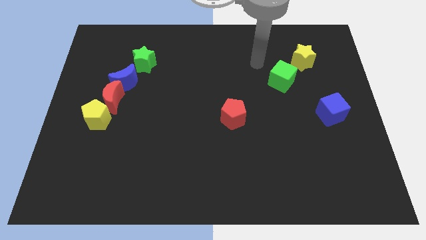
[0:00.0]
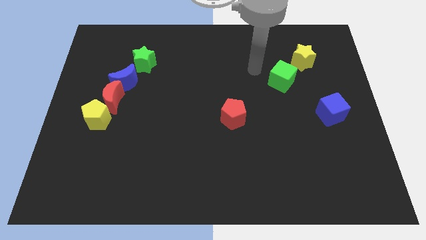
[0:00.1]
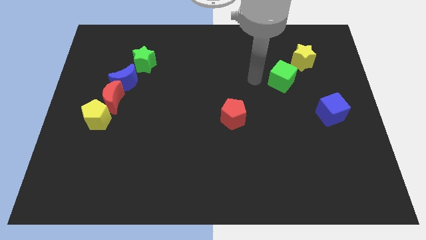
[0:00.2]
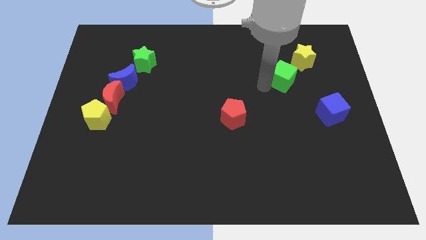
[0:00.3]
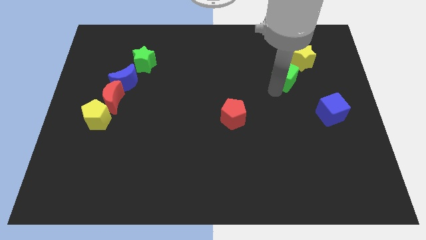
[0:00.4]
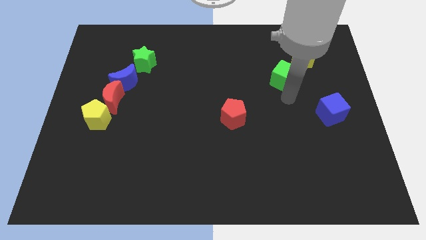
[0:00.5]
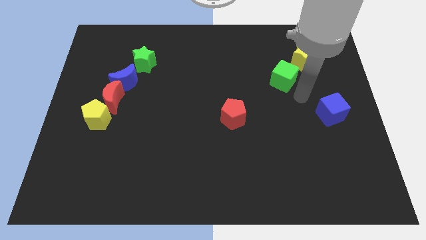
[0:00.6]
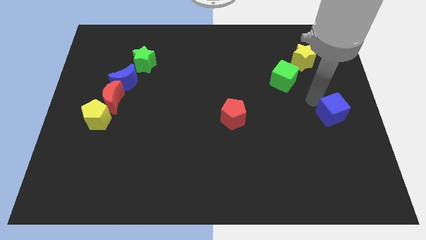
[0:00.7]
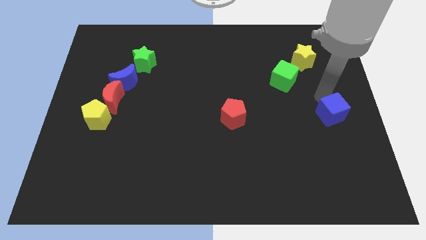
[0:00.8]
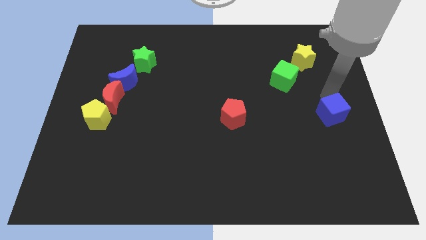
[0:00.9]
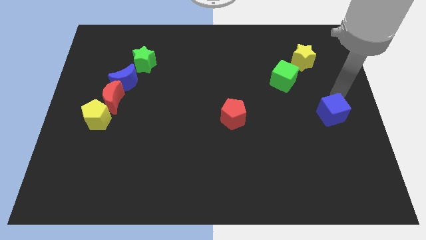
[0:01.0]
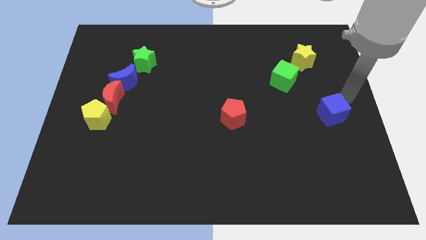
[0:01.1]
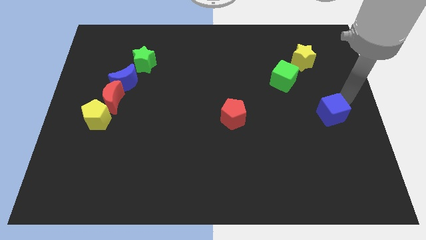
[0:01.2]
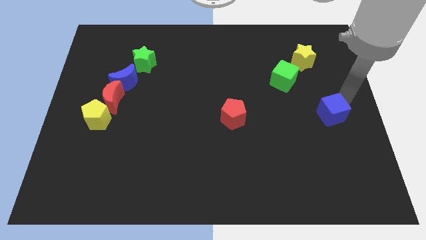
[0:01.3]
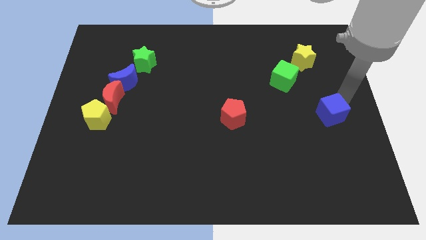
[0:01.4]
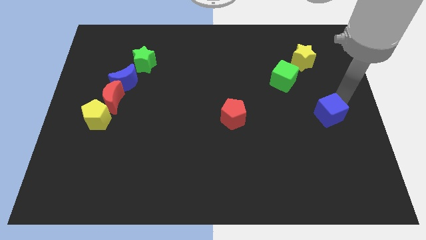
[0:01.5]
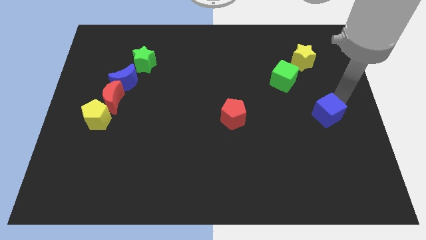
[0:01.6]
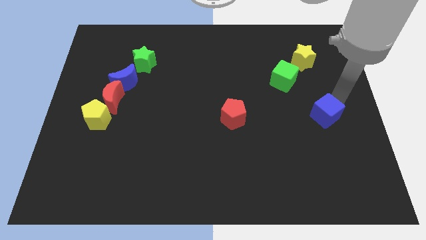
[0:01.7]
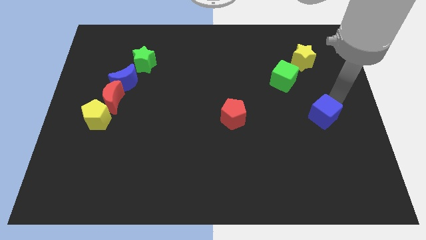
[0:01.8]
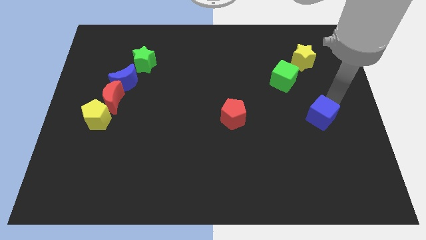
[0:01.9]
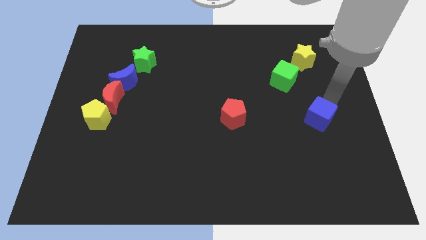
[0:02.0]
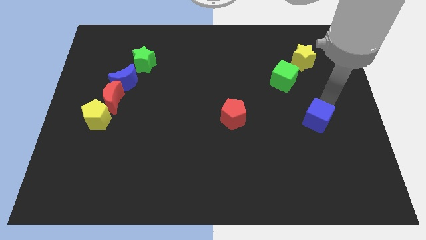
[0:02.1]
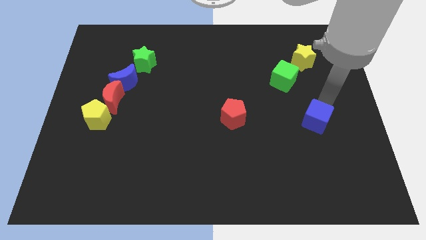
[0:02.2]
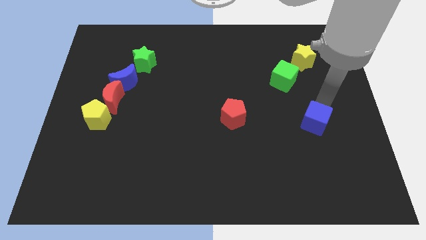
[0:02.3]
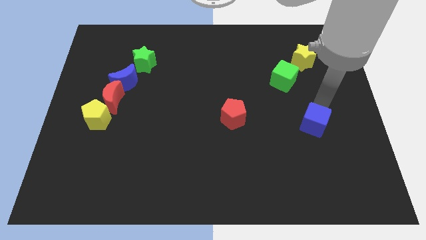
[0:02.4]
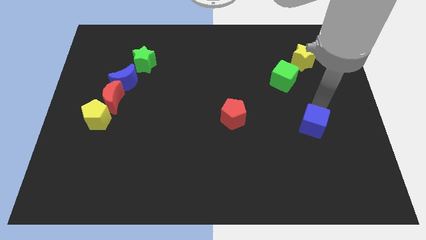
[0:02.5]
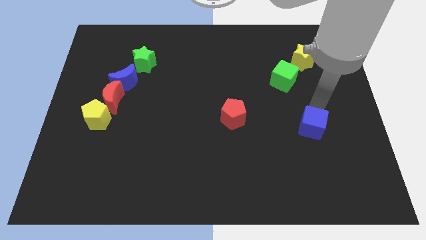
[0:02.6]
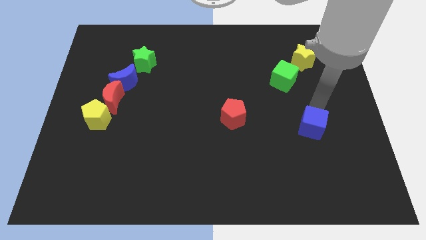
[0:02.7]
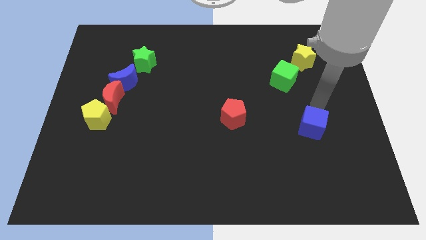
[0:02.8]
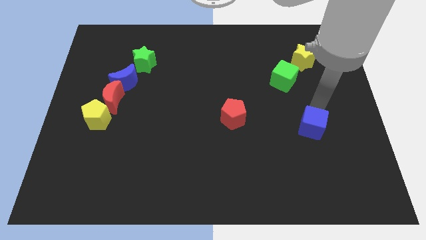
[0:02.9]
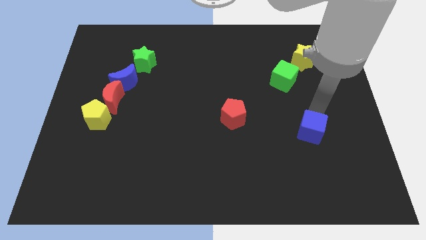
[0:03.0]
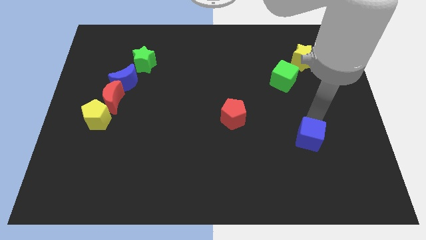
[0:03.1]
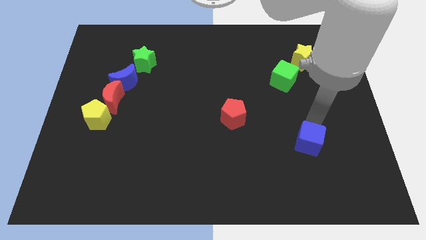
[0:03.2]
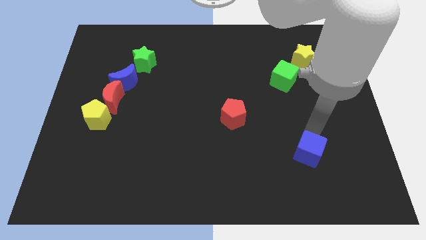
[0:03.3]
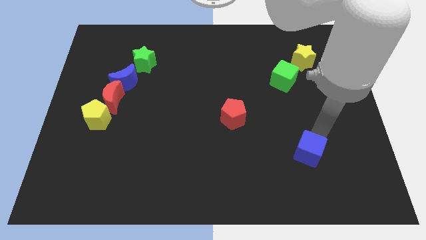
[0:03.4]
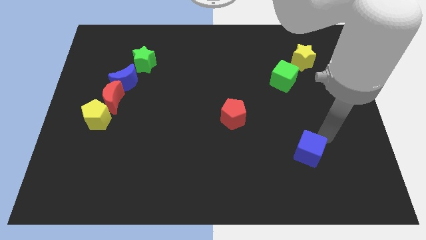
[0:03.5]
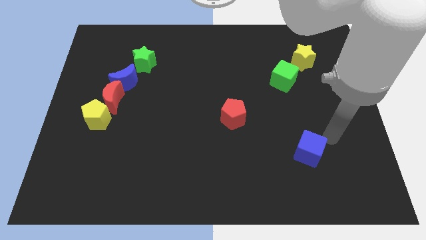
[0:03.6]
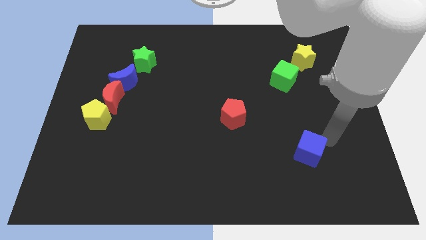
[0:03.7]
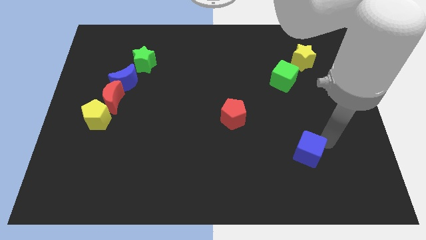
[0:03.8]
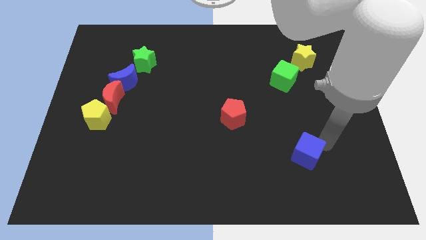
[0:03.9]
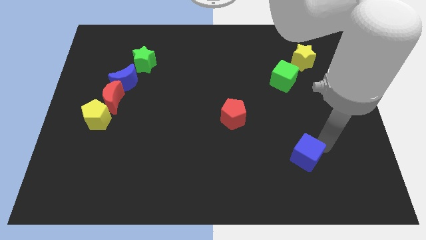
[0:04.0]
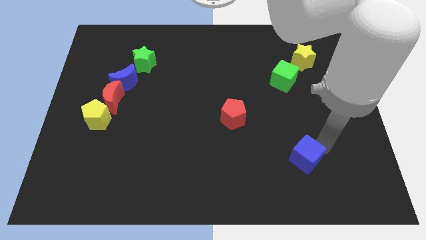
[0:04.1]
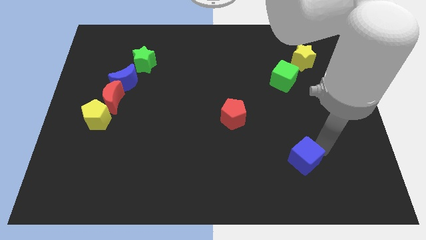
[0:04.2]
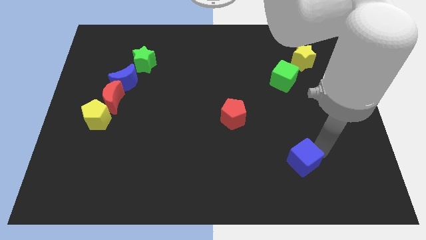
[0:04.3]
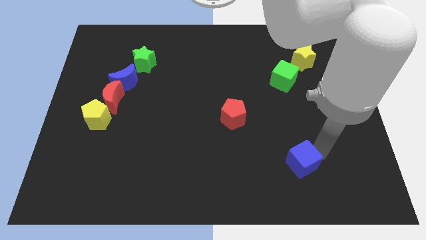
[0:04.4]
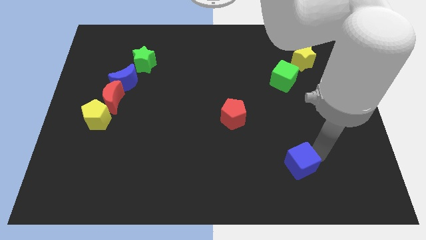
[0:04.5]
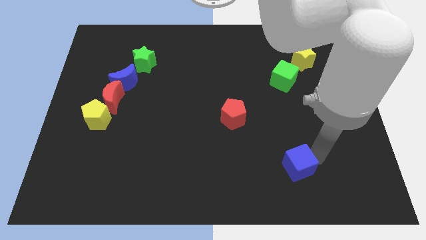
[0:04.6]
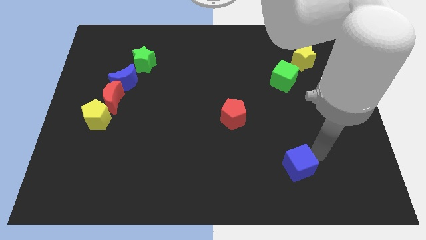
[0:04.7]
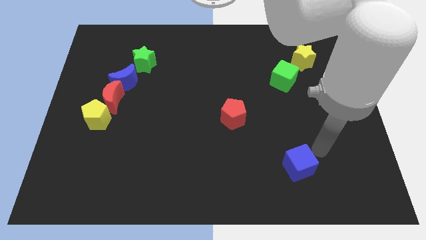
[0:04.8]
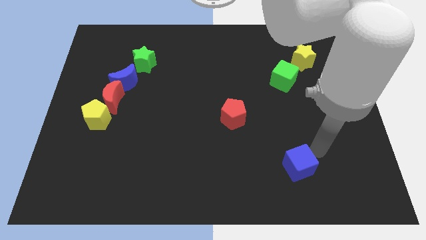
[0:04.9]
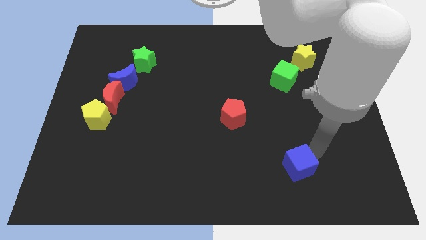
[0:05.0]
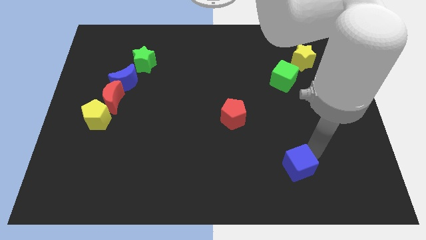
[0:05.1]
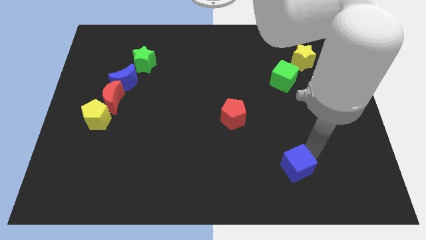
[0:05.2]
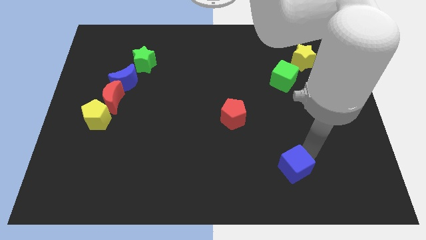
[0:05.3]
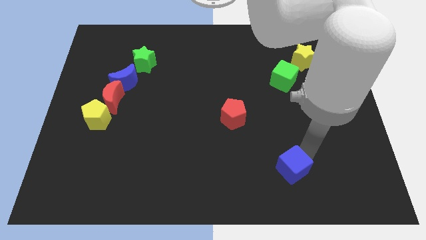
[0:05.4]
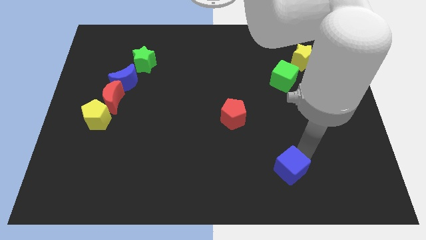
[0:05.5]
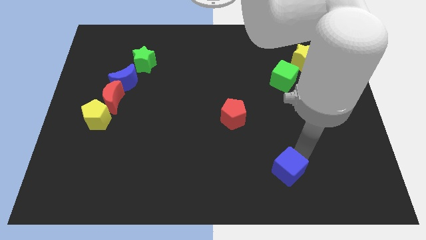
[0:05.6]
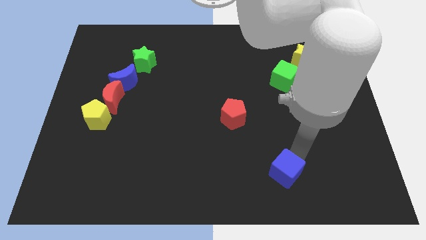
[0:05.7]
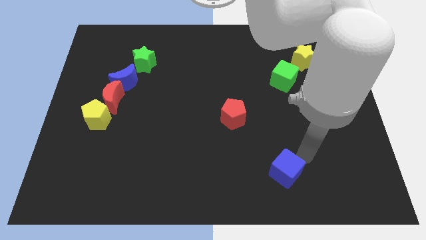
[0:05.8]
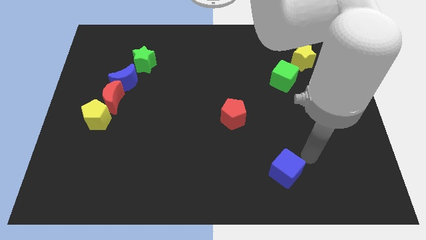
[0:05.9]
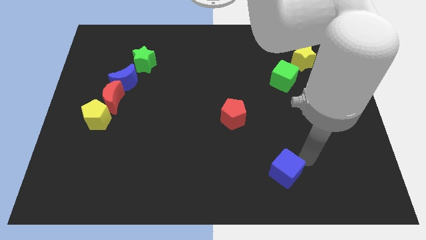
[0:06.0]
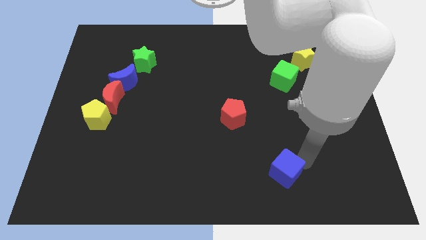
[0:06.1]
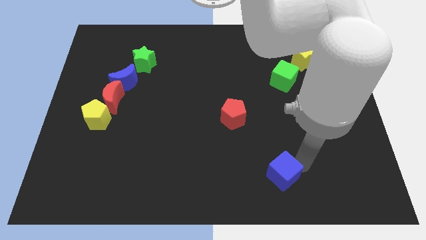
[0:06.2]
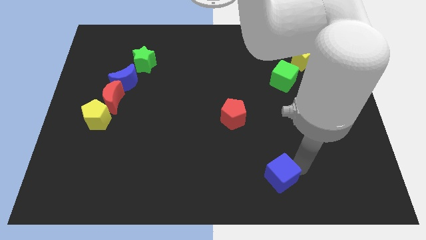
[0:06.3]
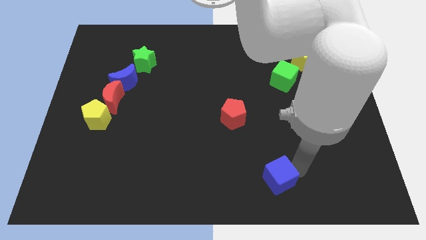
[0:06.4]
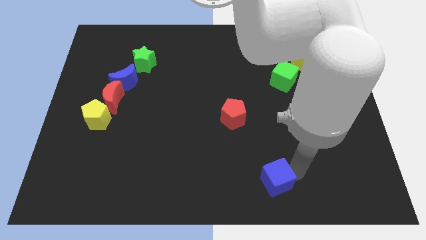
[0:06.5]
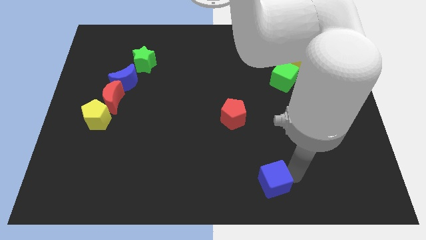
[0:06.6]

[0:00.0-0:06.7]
slide the blue cube to the bottom
